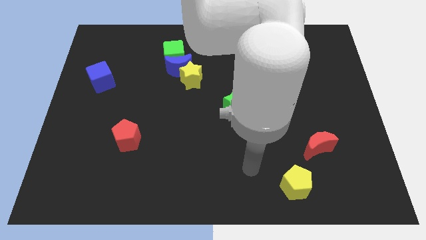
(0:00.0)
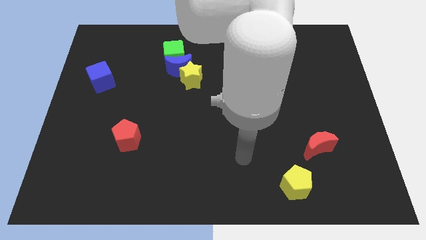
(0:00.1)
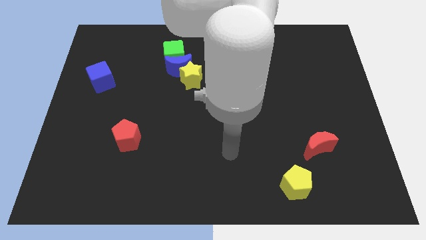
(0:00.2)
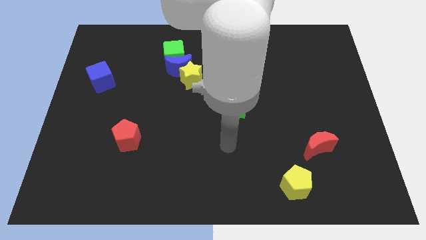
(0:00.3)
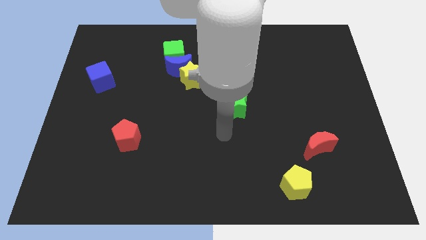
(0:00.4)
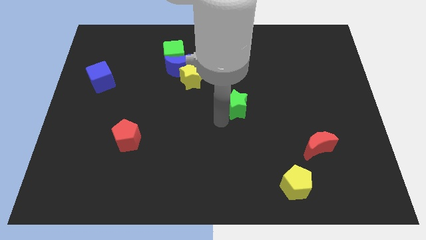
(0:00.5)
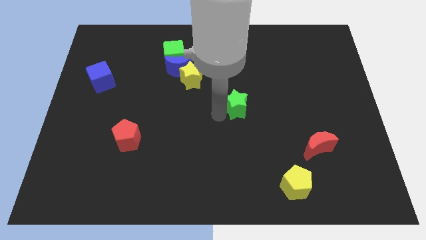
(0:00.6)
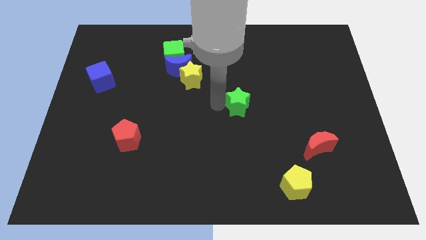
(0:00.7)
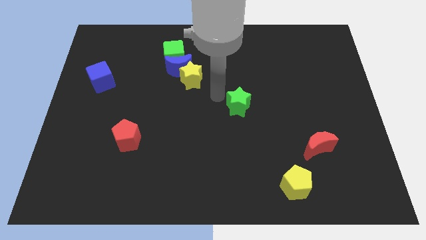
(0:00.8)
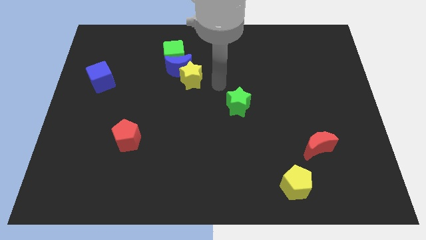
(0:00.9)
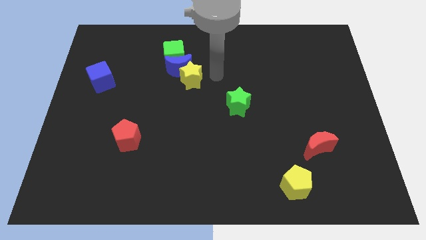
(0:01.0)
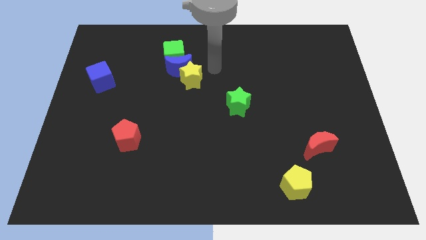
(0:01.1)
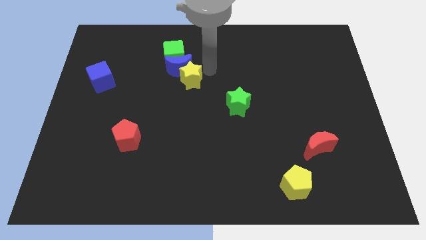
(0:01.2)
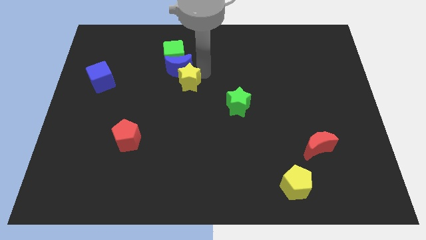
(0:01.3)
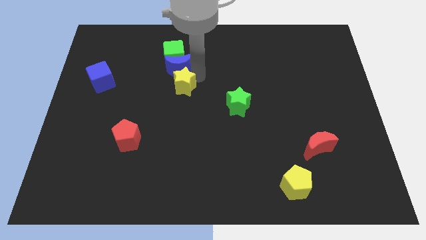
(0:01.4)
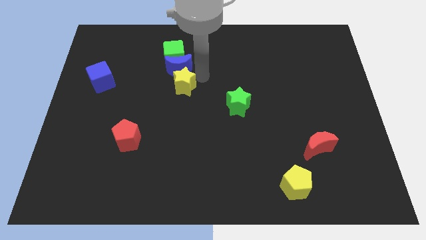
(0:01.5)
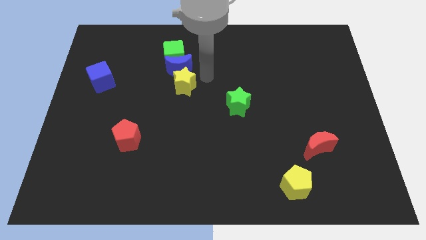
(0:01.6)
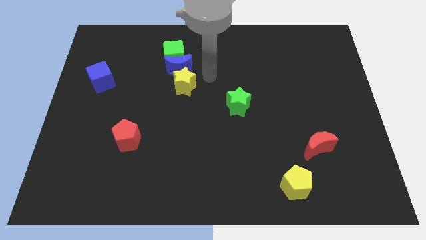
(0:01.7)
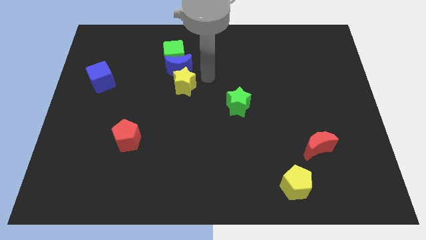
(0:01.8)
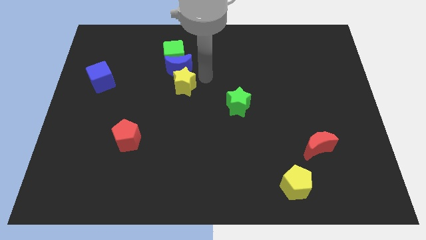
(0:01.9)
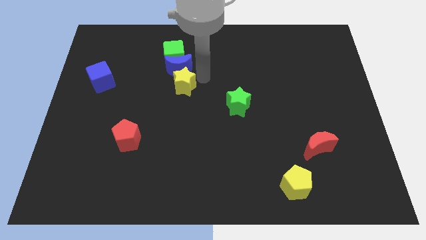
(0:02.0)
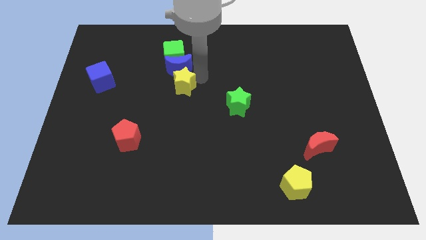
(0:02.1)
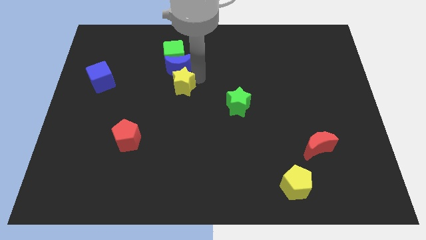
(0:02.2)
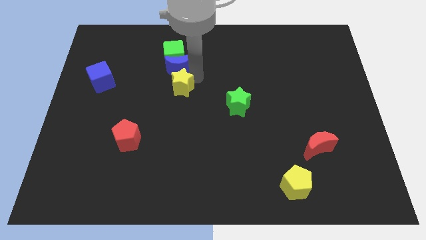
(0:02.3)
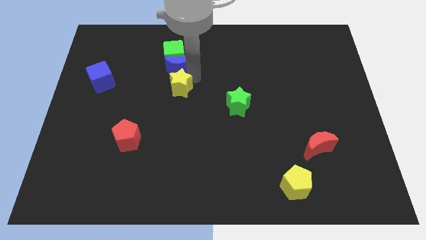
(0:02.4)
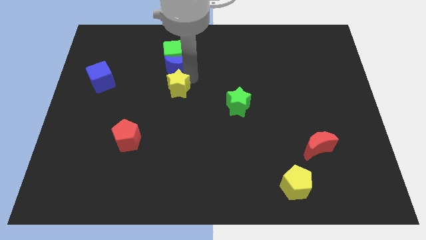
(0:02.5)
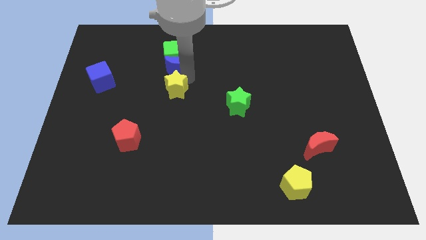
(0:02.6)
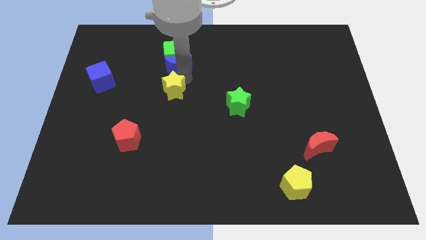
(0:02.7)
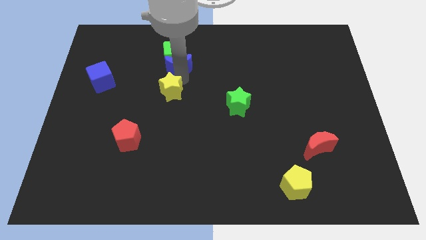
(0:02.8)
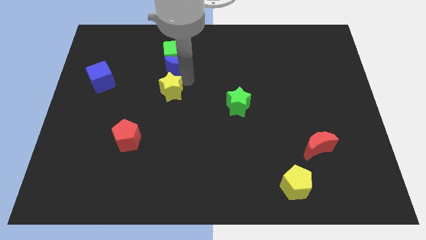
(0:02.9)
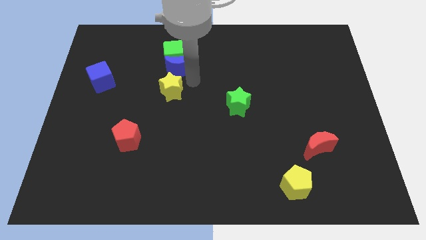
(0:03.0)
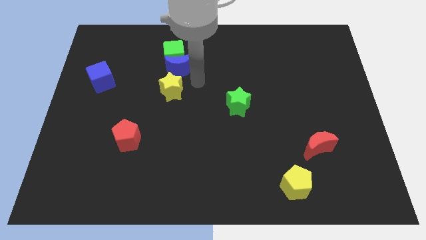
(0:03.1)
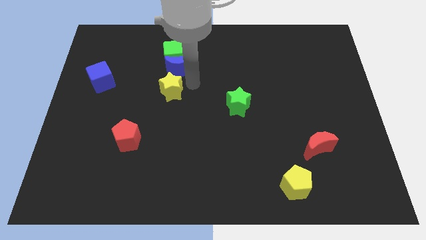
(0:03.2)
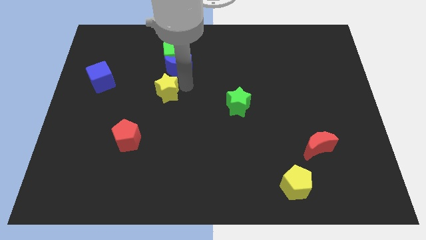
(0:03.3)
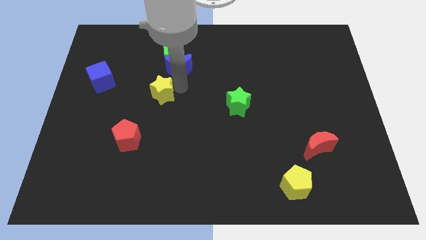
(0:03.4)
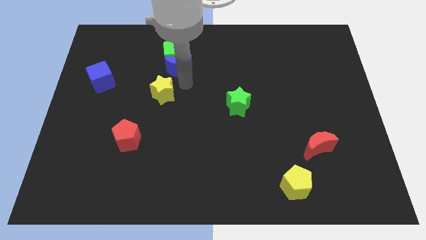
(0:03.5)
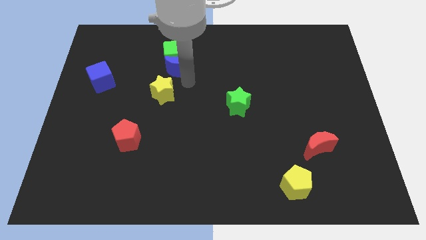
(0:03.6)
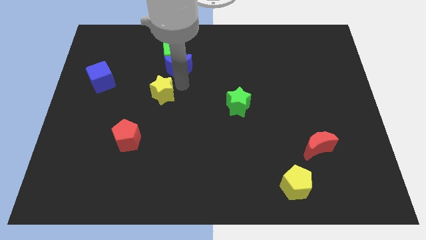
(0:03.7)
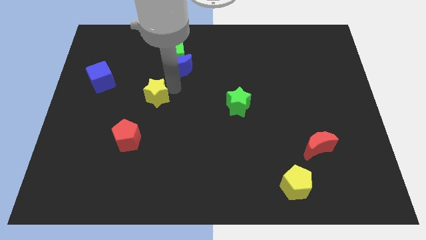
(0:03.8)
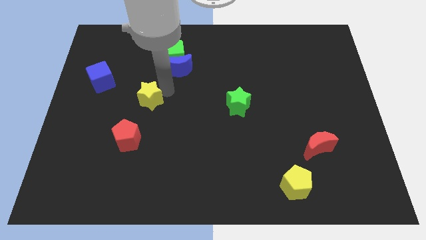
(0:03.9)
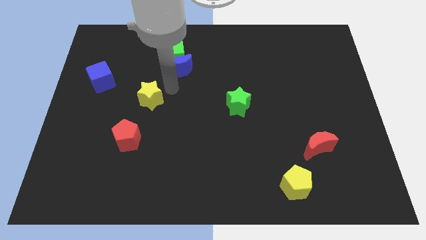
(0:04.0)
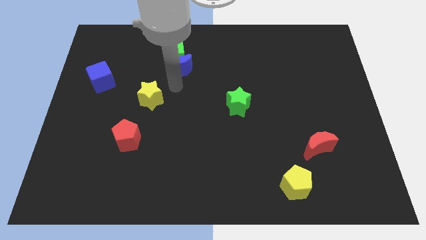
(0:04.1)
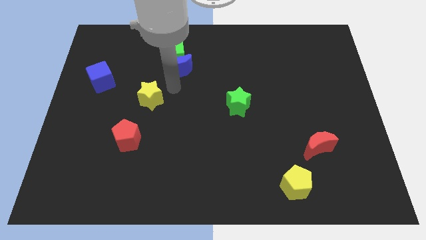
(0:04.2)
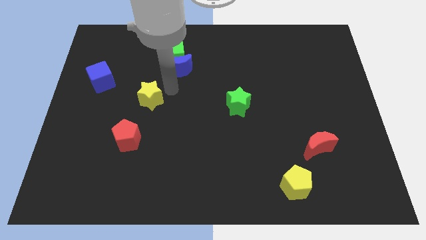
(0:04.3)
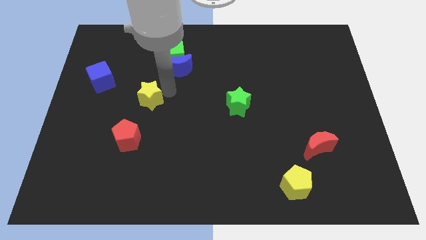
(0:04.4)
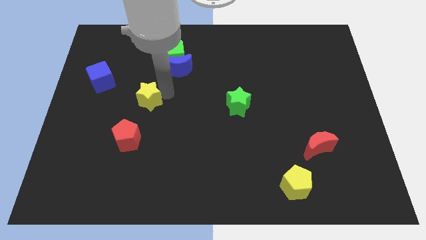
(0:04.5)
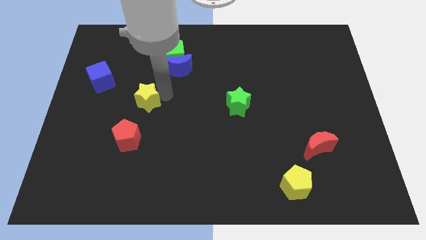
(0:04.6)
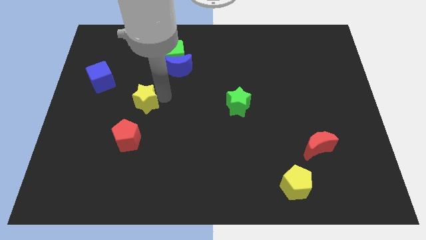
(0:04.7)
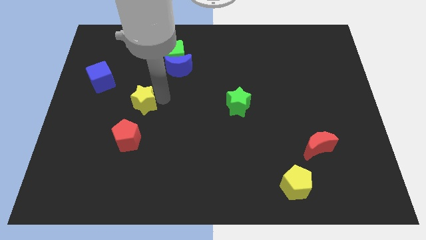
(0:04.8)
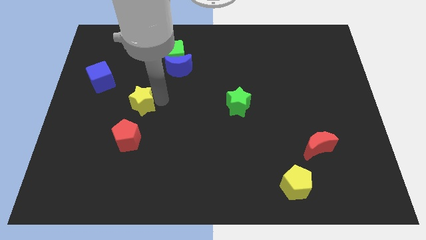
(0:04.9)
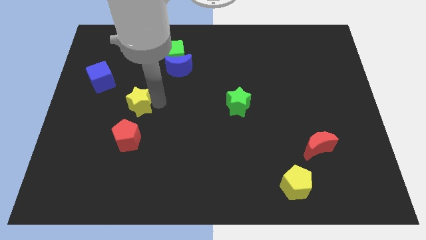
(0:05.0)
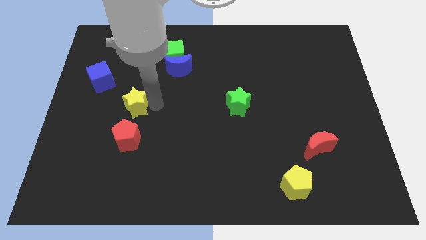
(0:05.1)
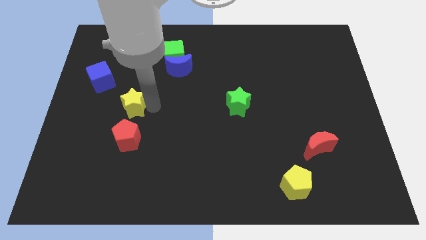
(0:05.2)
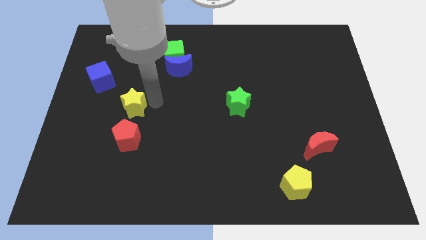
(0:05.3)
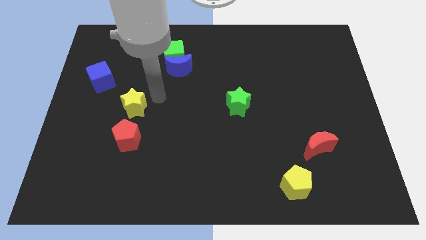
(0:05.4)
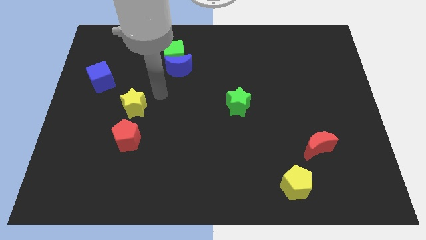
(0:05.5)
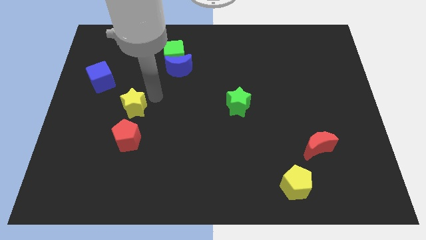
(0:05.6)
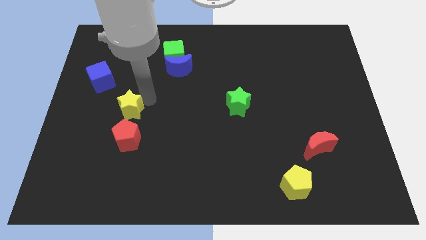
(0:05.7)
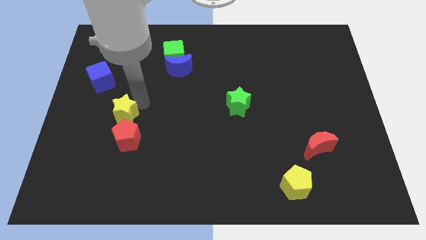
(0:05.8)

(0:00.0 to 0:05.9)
slide the yellow star to the top left side of the red pentagon

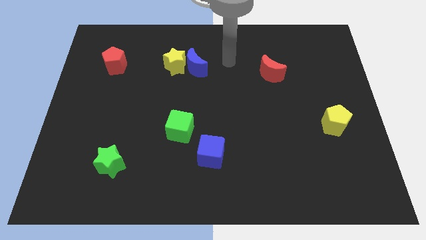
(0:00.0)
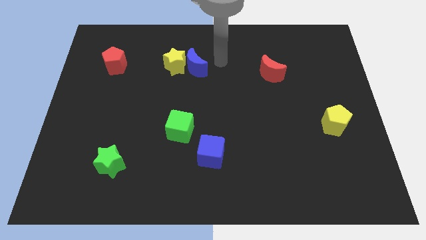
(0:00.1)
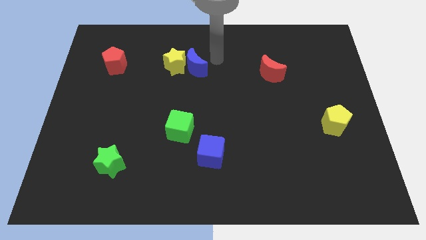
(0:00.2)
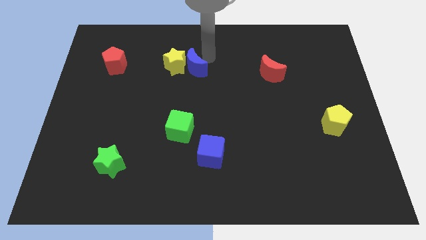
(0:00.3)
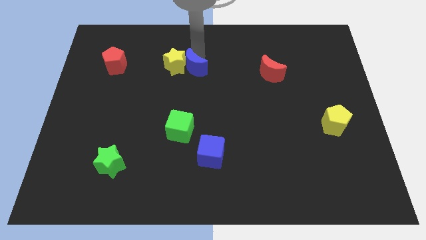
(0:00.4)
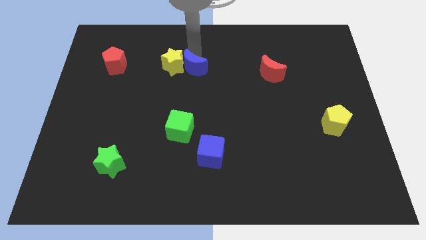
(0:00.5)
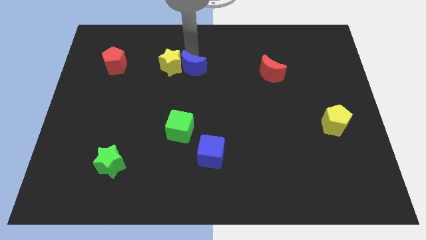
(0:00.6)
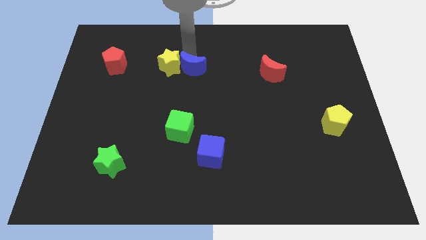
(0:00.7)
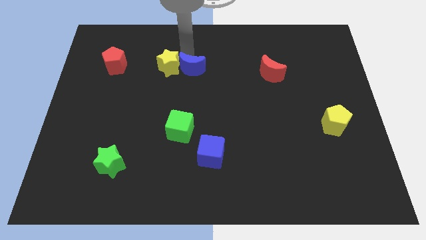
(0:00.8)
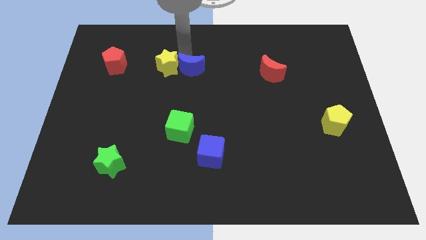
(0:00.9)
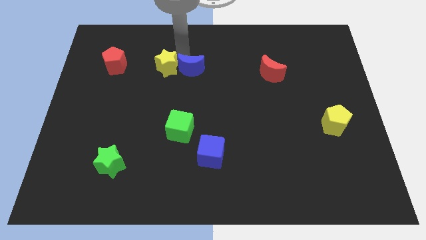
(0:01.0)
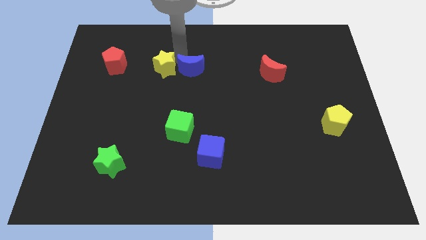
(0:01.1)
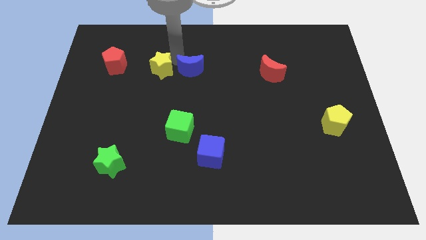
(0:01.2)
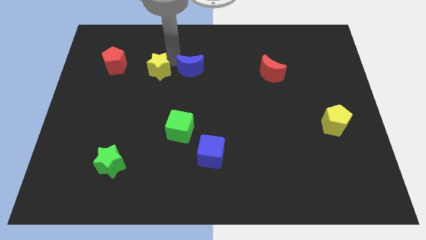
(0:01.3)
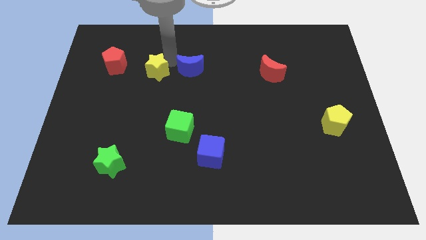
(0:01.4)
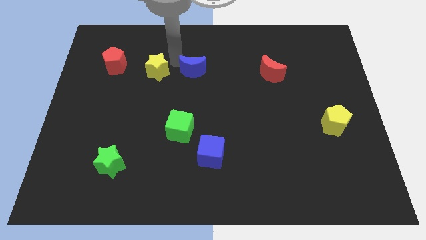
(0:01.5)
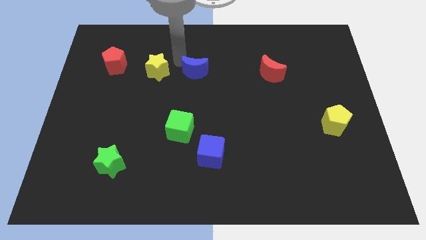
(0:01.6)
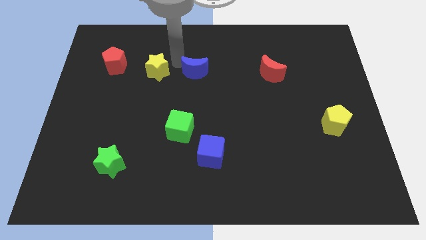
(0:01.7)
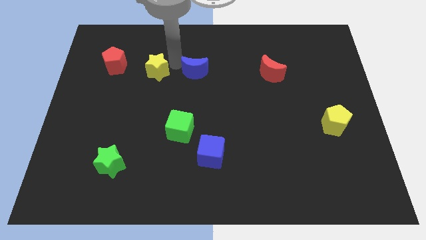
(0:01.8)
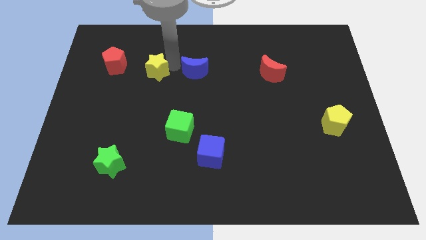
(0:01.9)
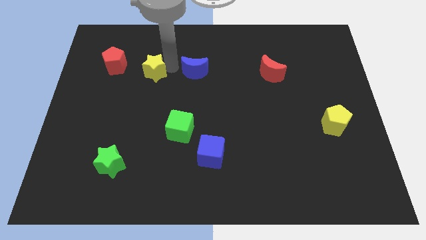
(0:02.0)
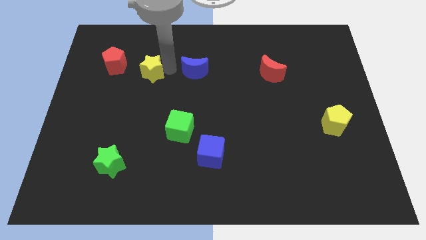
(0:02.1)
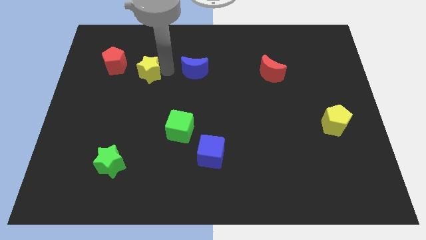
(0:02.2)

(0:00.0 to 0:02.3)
push the yellow star to the bottom right side of the red pentagon
